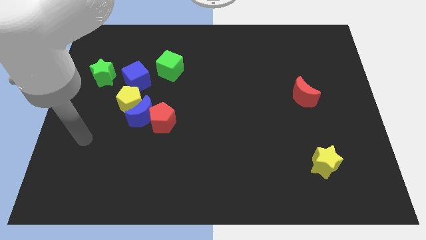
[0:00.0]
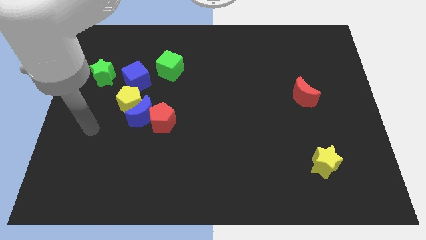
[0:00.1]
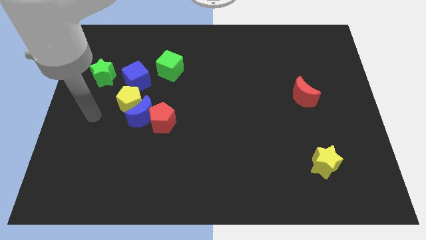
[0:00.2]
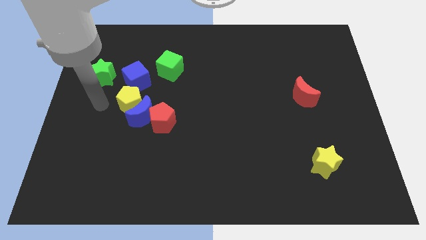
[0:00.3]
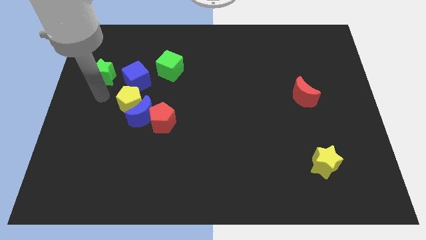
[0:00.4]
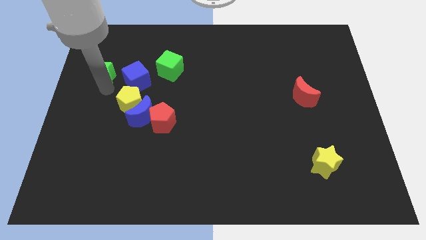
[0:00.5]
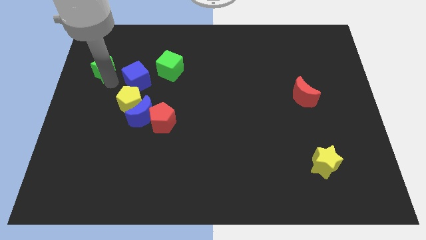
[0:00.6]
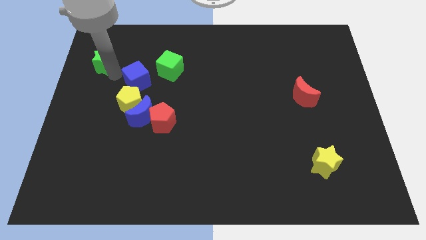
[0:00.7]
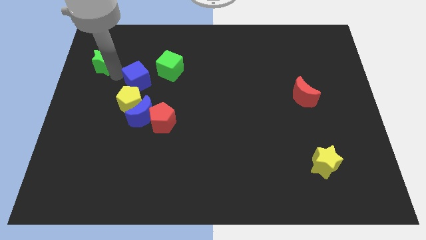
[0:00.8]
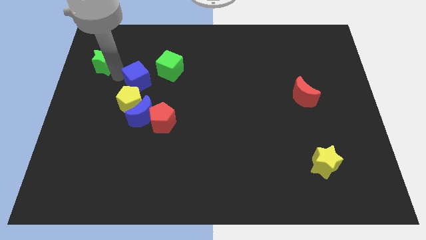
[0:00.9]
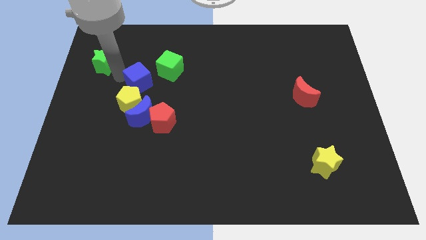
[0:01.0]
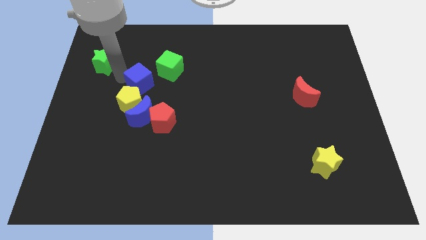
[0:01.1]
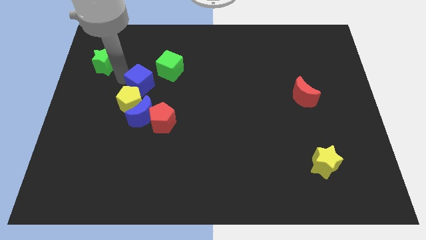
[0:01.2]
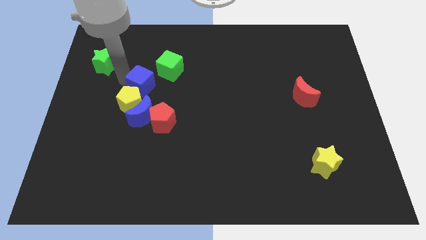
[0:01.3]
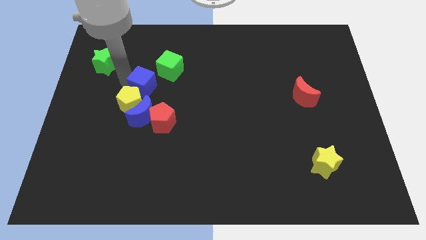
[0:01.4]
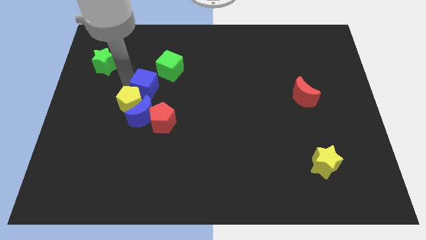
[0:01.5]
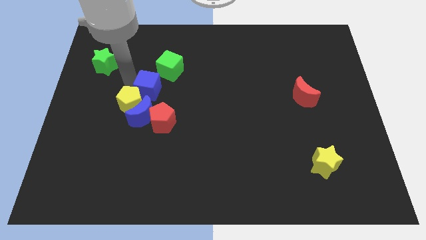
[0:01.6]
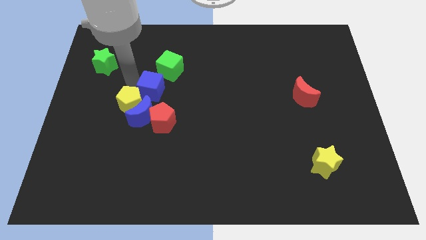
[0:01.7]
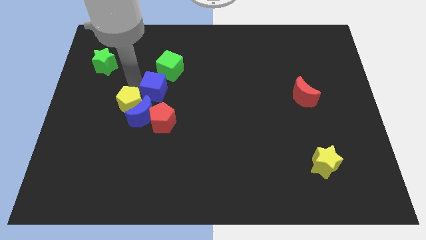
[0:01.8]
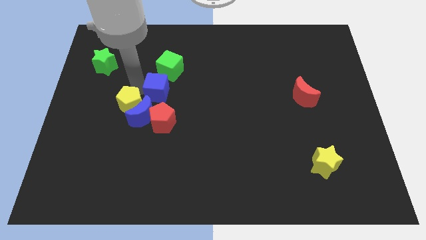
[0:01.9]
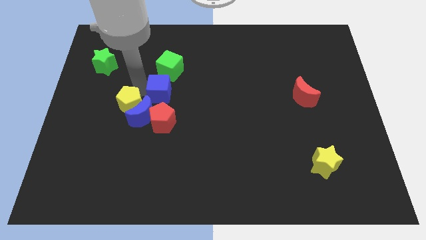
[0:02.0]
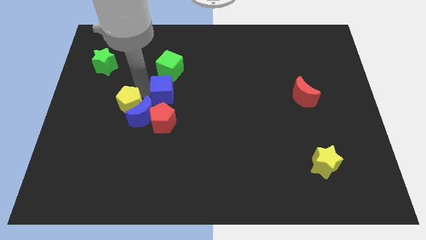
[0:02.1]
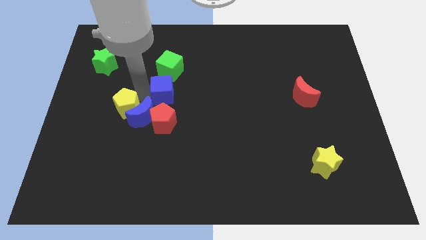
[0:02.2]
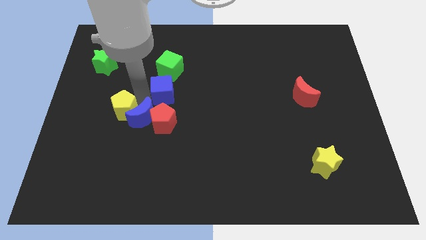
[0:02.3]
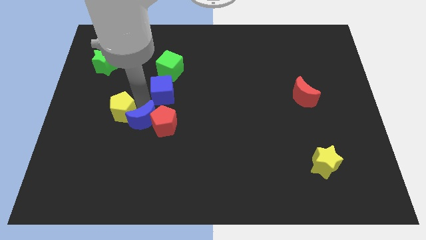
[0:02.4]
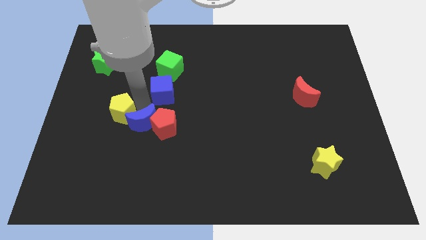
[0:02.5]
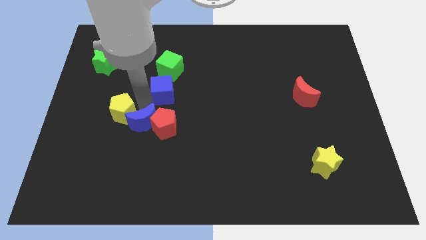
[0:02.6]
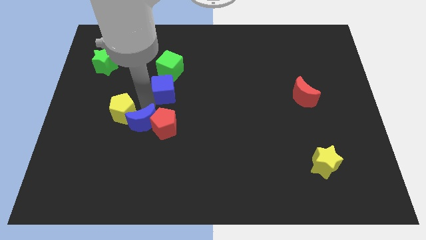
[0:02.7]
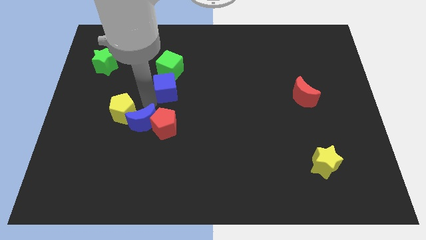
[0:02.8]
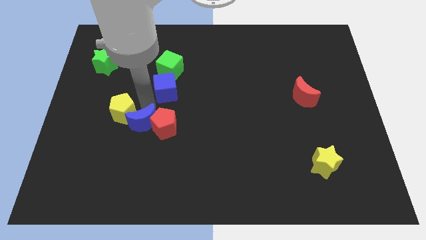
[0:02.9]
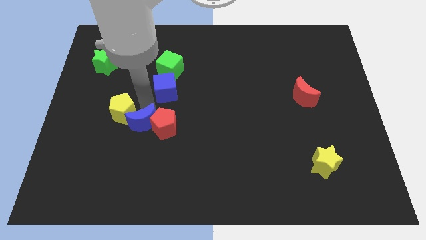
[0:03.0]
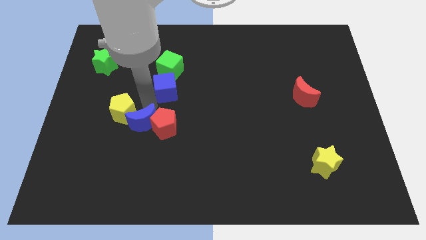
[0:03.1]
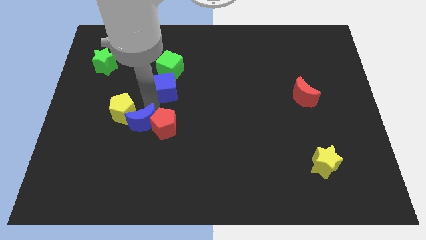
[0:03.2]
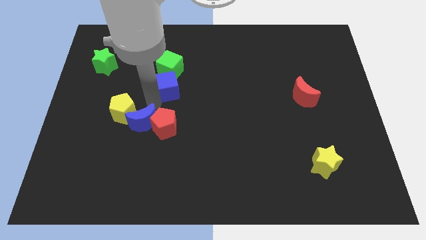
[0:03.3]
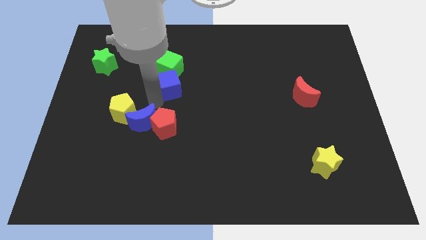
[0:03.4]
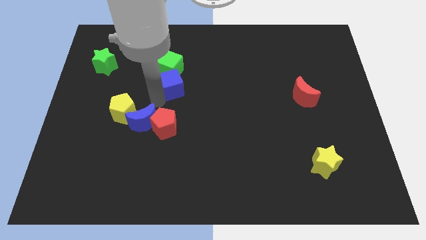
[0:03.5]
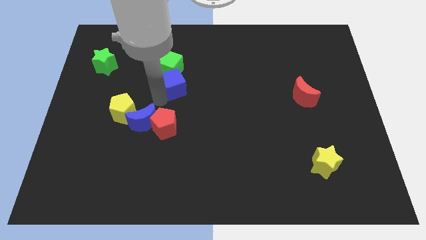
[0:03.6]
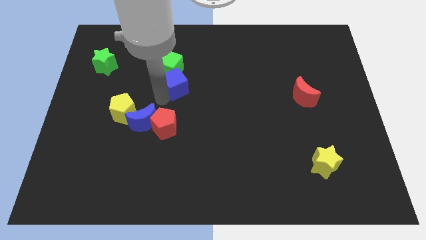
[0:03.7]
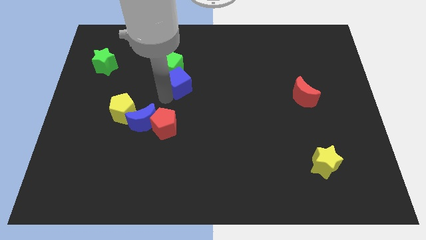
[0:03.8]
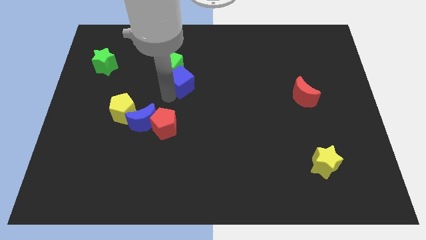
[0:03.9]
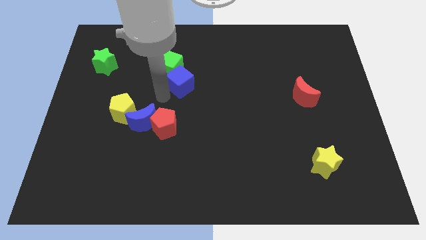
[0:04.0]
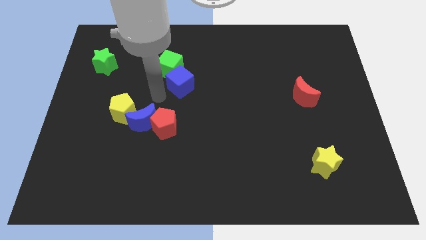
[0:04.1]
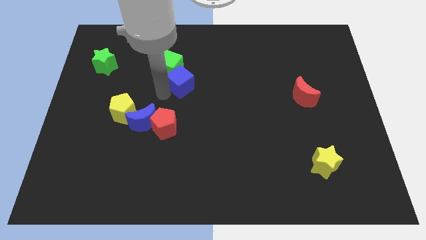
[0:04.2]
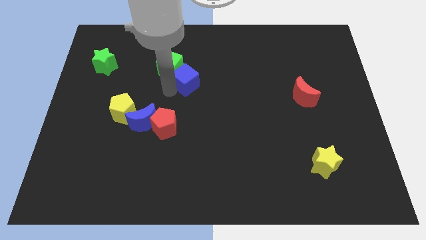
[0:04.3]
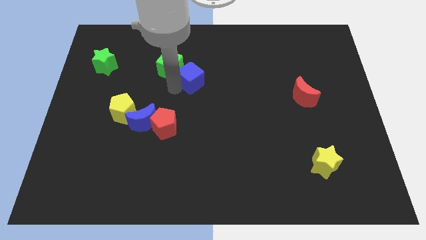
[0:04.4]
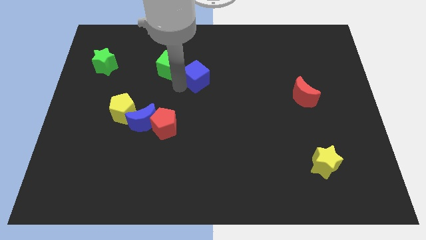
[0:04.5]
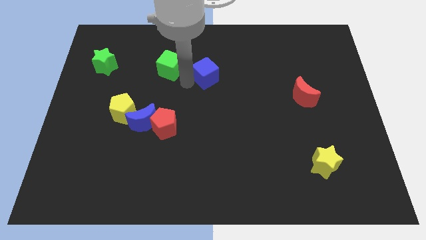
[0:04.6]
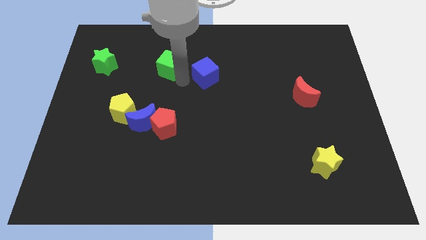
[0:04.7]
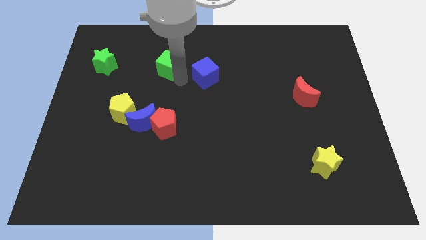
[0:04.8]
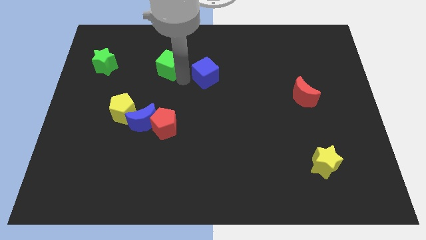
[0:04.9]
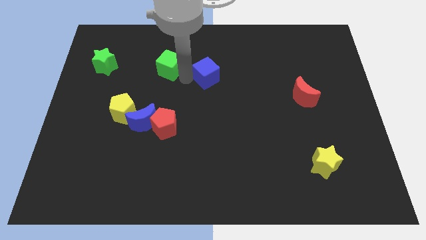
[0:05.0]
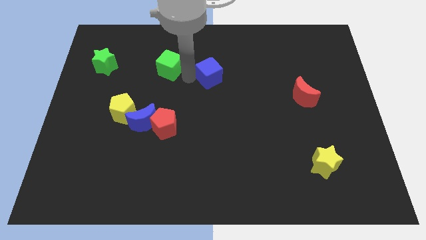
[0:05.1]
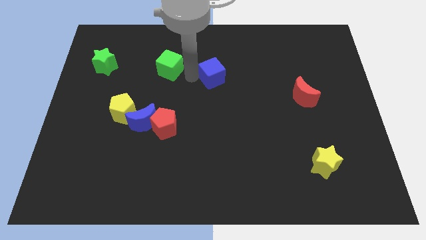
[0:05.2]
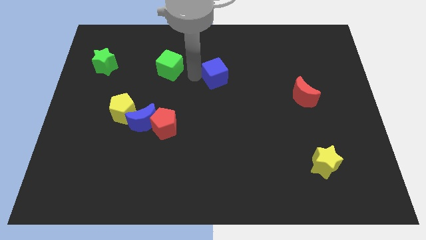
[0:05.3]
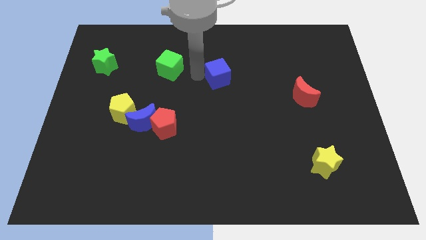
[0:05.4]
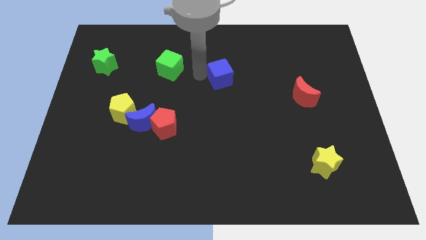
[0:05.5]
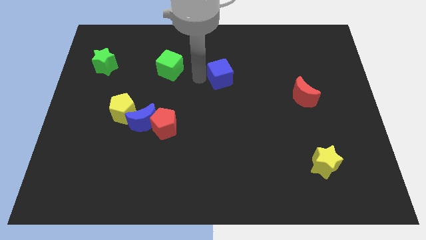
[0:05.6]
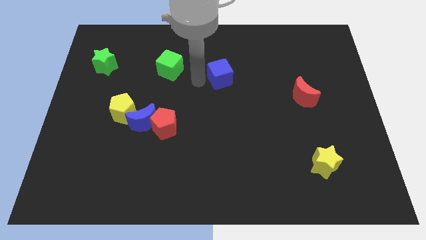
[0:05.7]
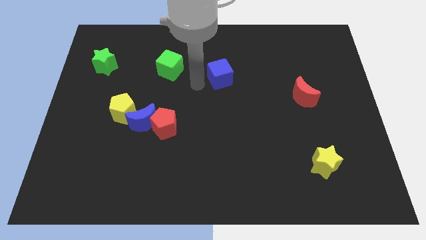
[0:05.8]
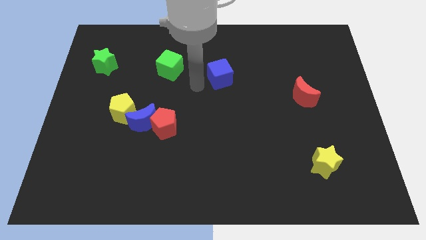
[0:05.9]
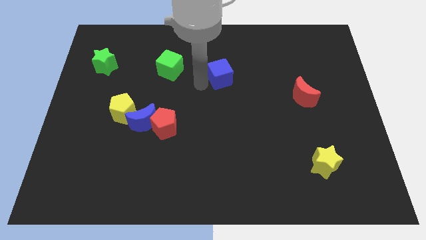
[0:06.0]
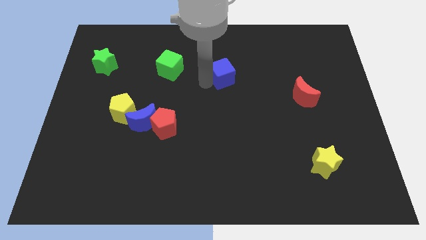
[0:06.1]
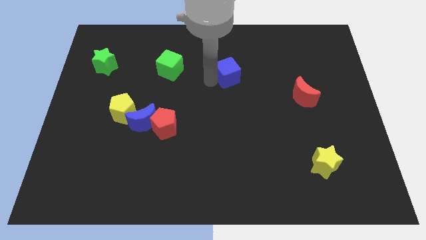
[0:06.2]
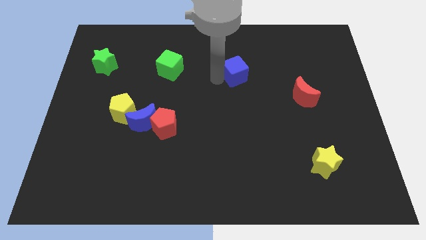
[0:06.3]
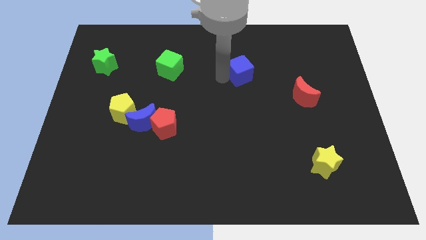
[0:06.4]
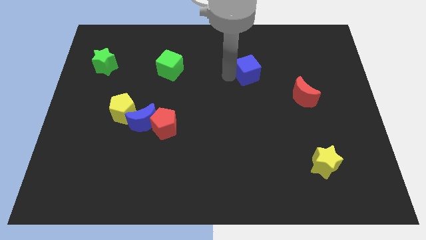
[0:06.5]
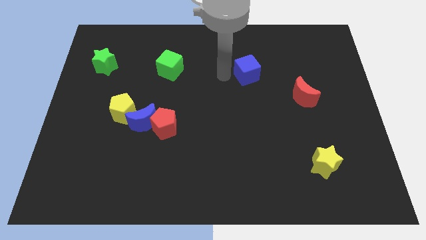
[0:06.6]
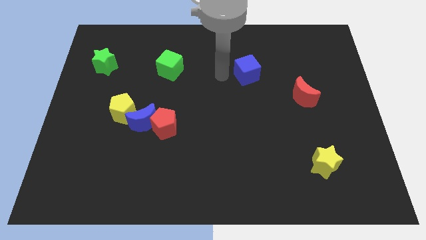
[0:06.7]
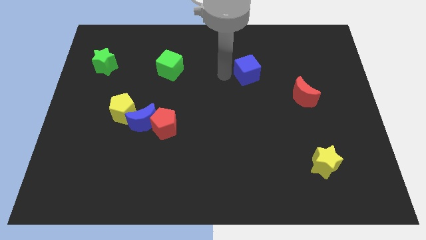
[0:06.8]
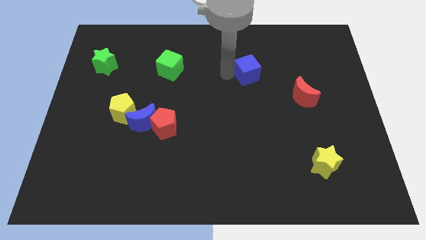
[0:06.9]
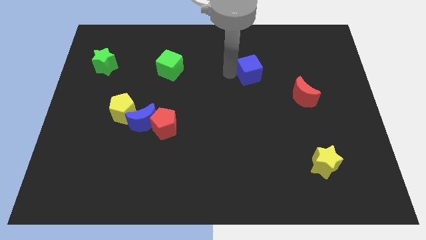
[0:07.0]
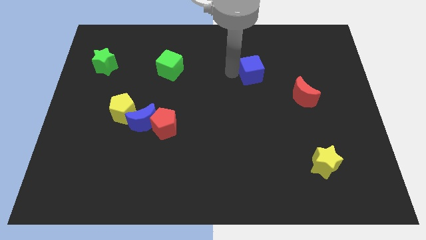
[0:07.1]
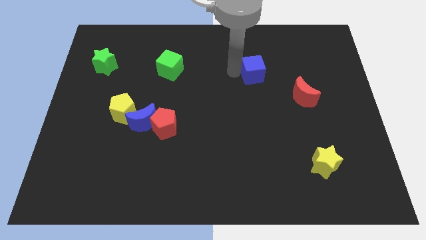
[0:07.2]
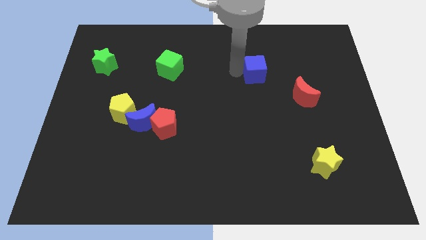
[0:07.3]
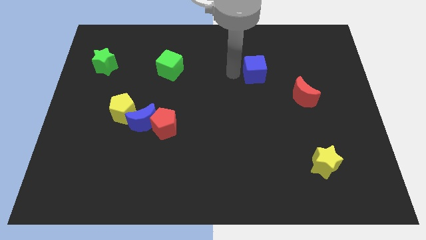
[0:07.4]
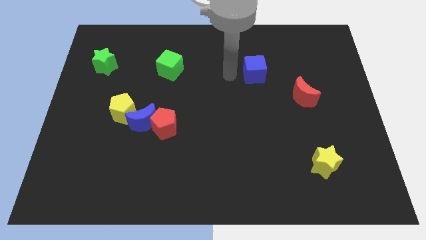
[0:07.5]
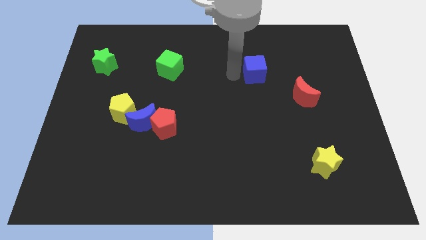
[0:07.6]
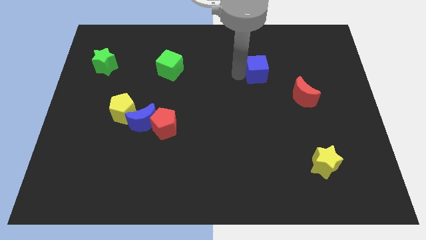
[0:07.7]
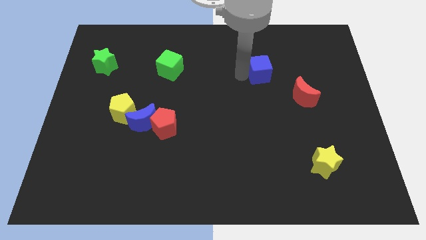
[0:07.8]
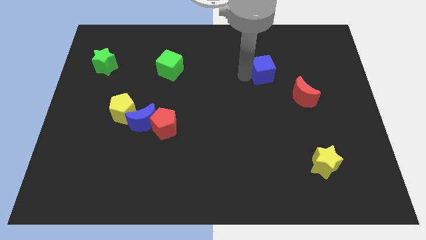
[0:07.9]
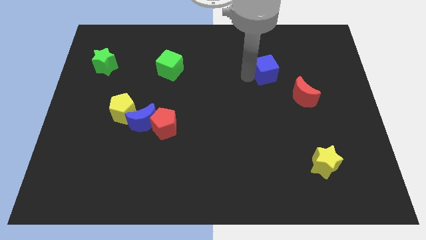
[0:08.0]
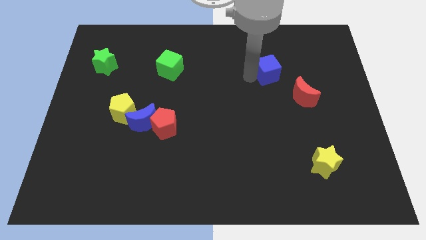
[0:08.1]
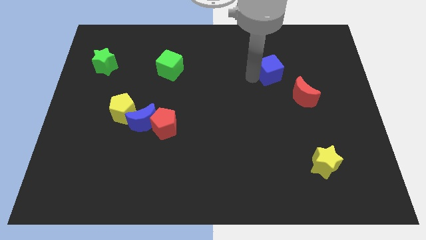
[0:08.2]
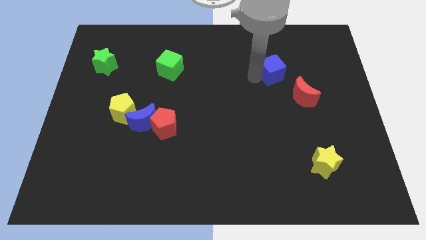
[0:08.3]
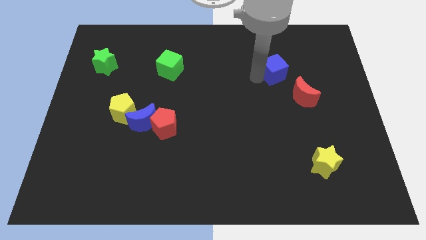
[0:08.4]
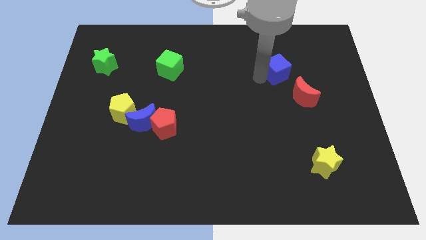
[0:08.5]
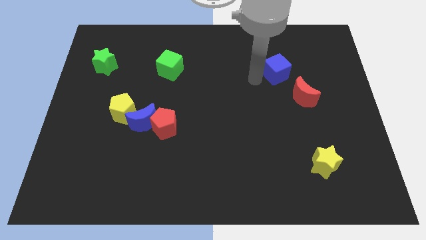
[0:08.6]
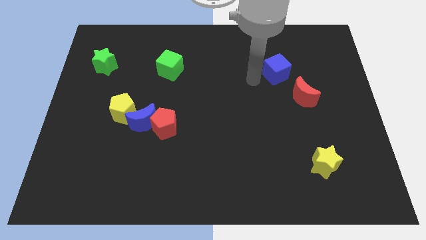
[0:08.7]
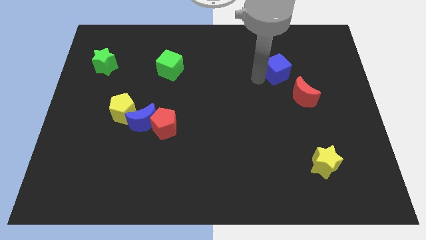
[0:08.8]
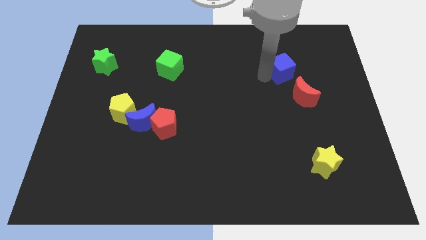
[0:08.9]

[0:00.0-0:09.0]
put the blue cube to the top side of the red moon
